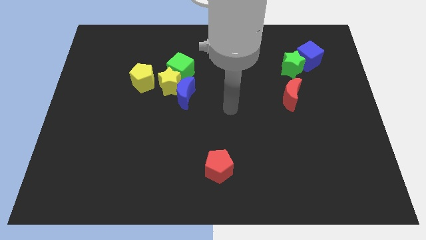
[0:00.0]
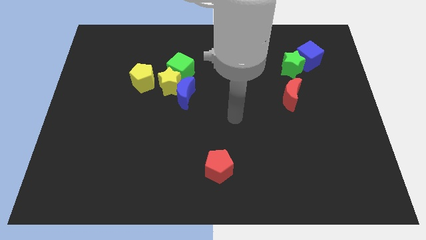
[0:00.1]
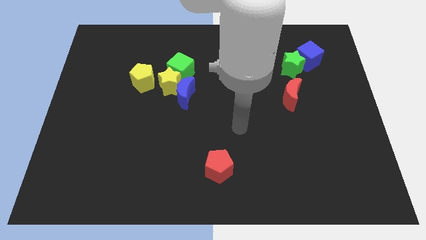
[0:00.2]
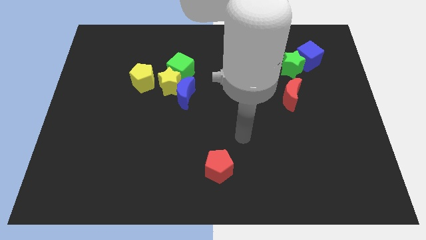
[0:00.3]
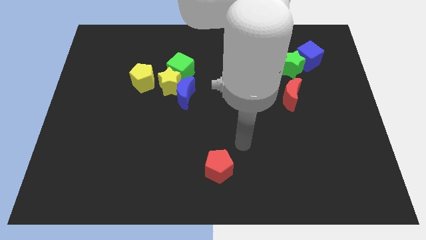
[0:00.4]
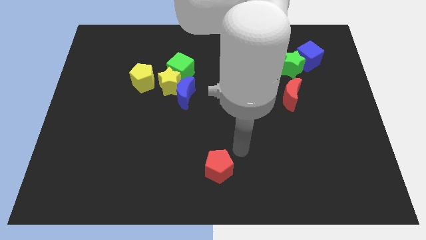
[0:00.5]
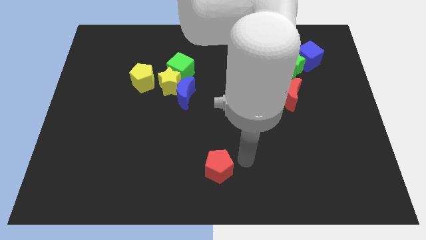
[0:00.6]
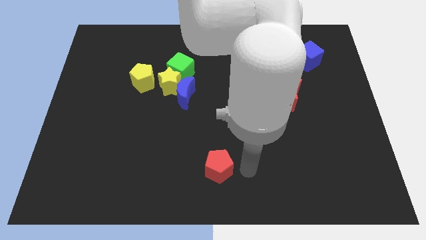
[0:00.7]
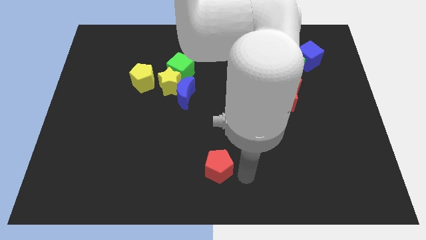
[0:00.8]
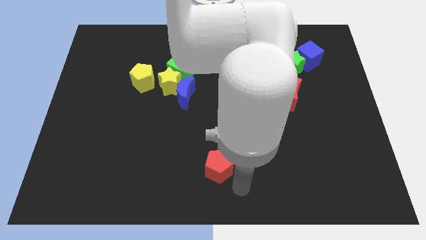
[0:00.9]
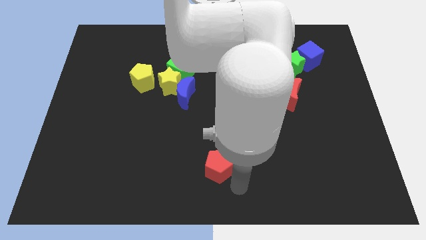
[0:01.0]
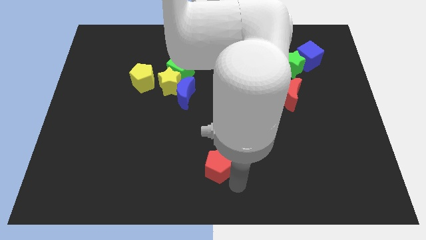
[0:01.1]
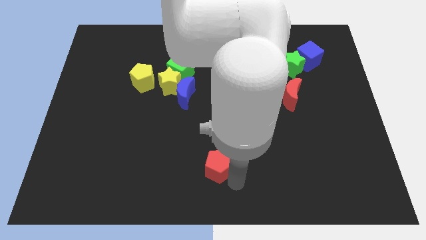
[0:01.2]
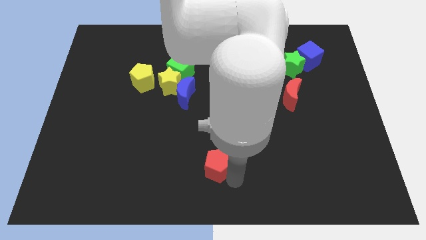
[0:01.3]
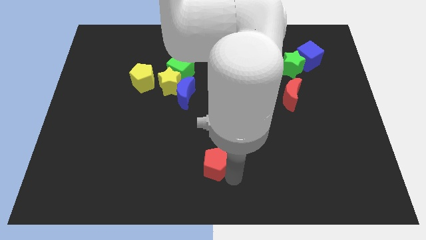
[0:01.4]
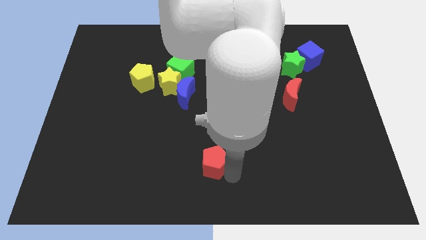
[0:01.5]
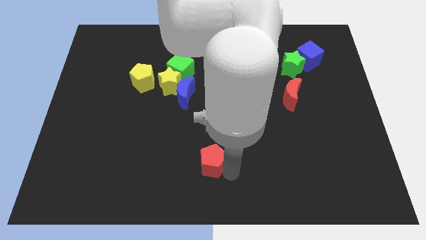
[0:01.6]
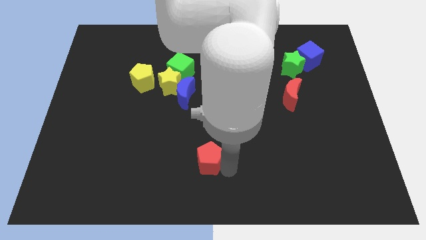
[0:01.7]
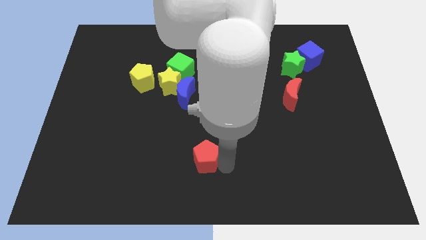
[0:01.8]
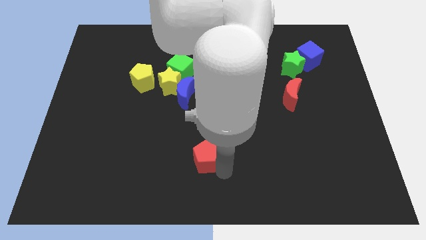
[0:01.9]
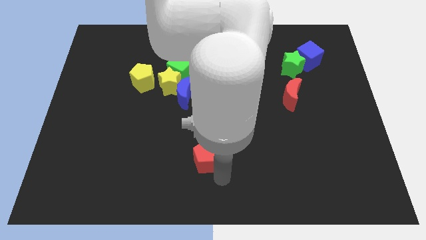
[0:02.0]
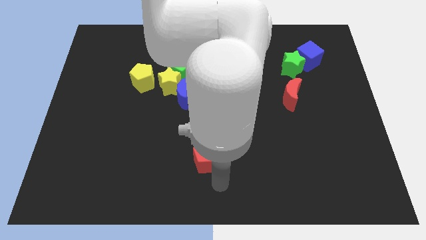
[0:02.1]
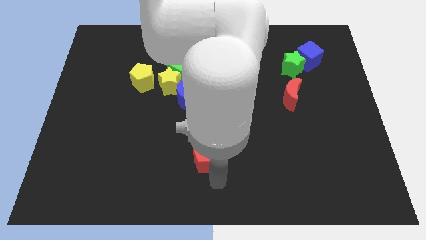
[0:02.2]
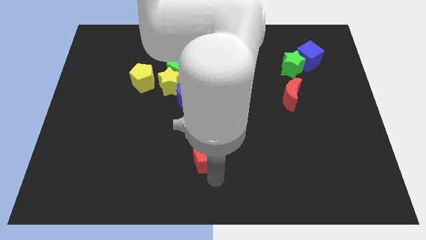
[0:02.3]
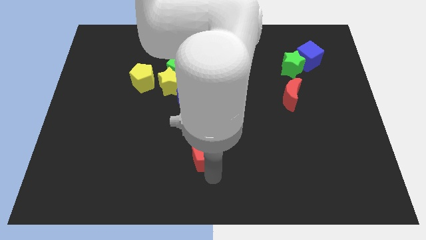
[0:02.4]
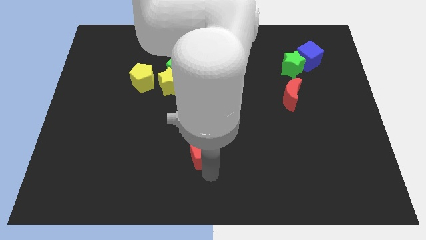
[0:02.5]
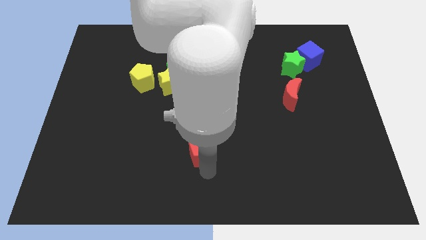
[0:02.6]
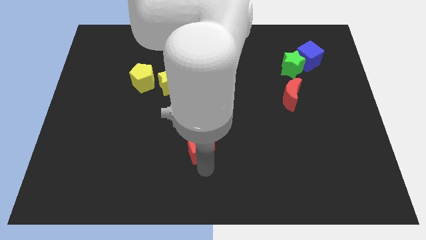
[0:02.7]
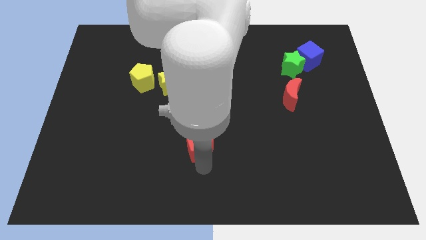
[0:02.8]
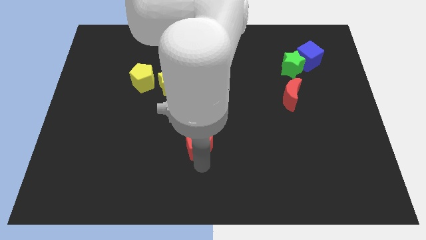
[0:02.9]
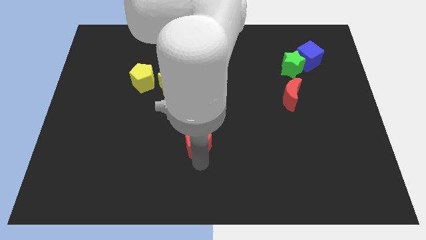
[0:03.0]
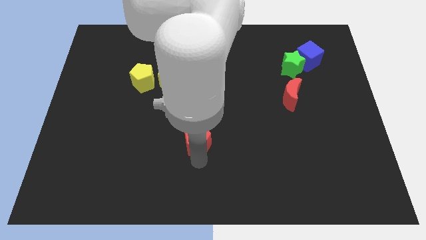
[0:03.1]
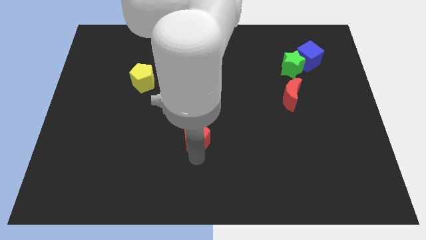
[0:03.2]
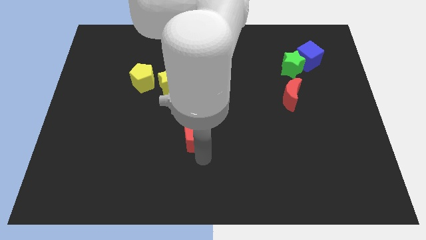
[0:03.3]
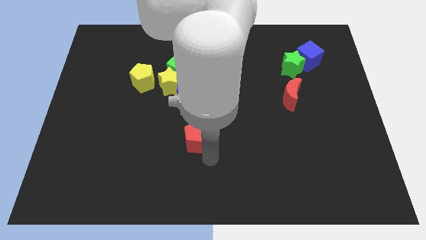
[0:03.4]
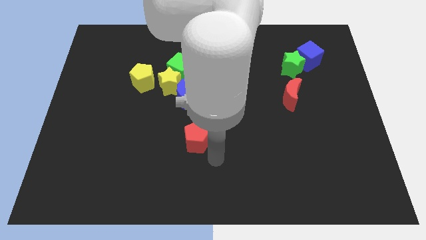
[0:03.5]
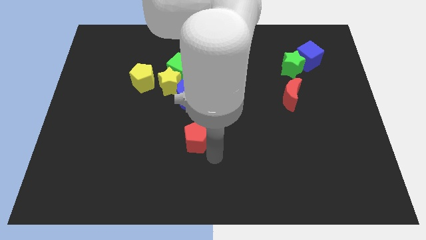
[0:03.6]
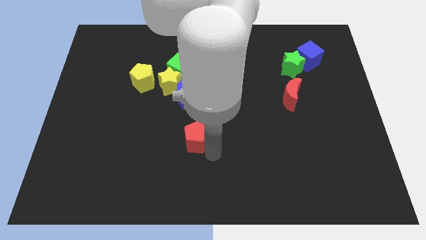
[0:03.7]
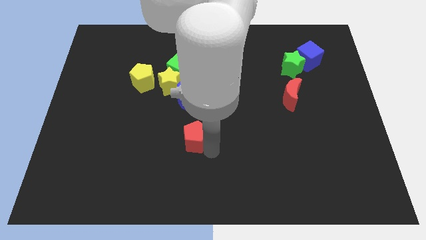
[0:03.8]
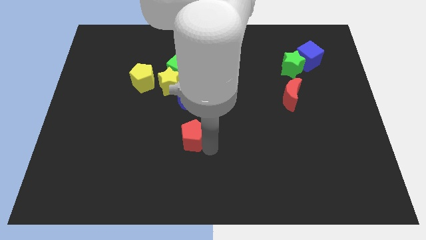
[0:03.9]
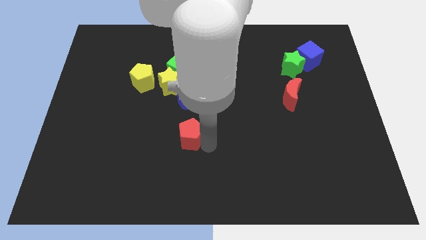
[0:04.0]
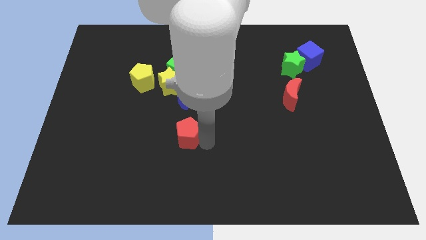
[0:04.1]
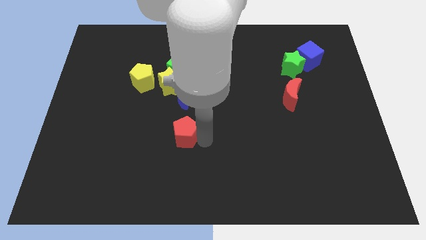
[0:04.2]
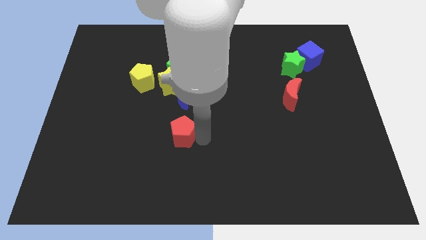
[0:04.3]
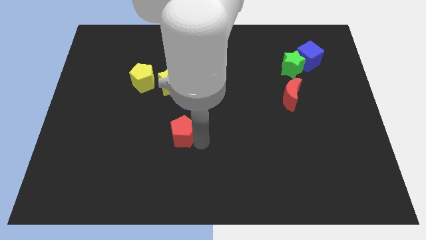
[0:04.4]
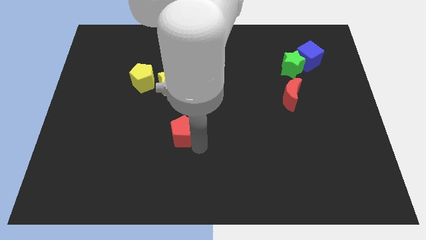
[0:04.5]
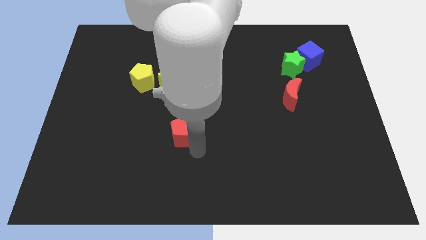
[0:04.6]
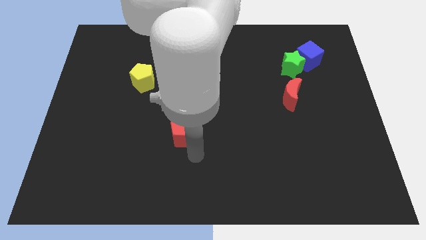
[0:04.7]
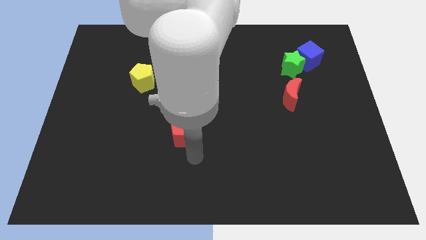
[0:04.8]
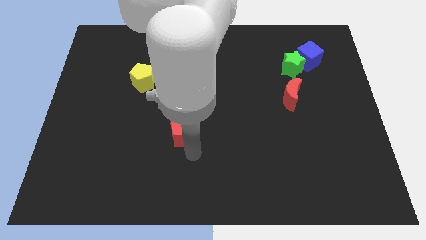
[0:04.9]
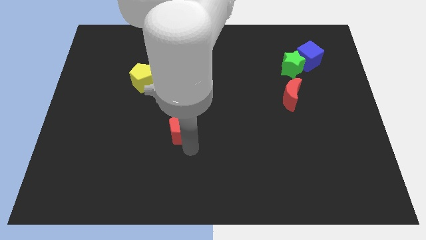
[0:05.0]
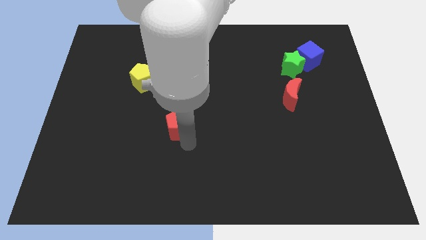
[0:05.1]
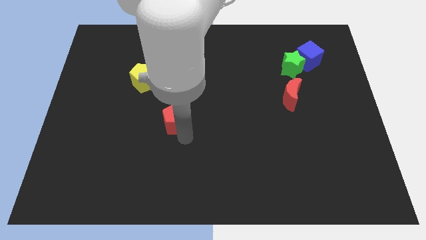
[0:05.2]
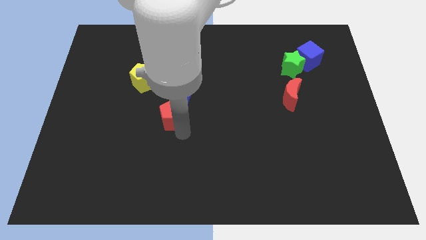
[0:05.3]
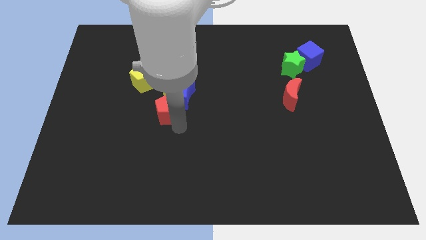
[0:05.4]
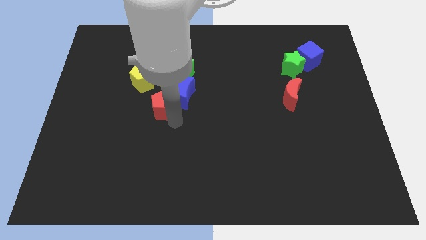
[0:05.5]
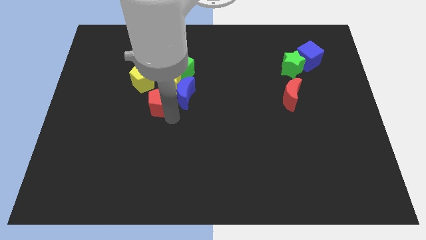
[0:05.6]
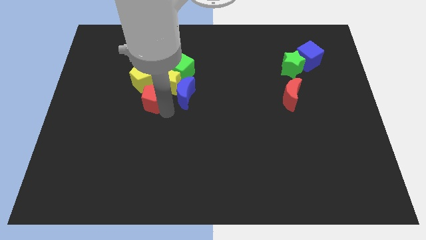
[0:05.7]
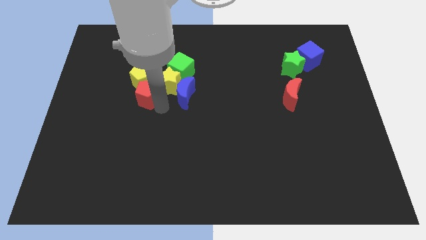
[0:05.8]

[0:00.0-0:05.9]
move the red pentagon next to the yellow pentagon
